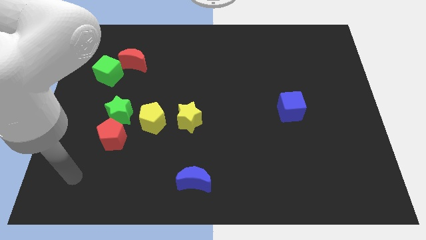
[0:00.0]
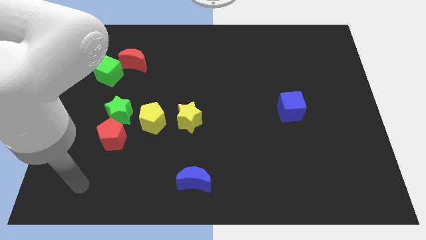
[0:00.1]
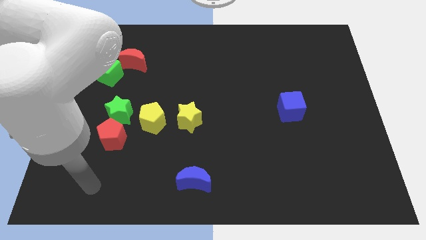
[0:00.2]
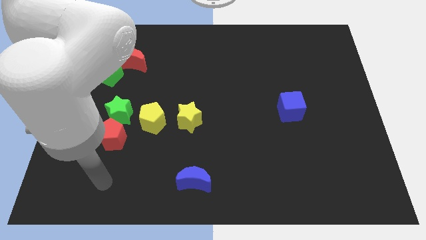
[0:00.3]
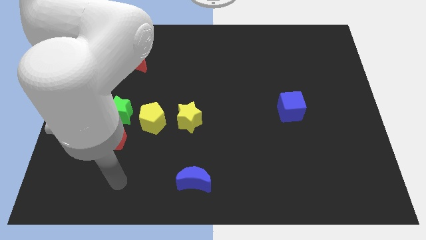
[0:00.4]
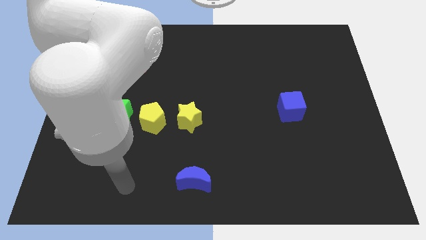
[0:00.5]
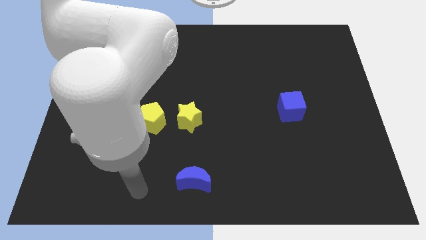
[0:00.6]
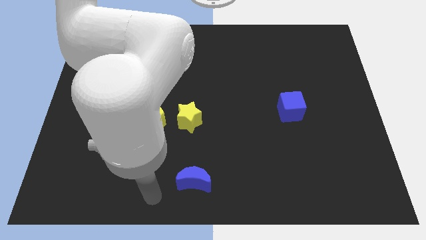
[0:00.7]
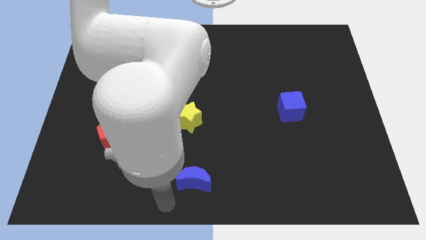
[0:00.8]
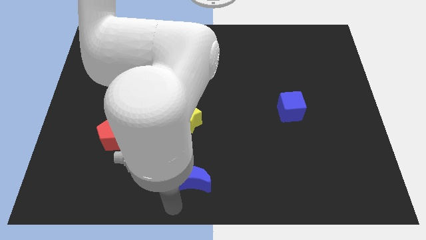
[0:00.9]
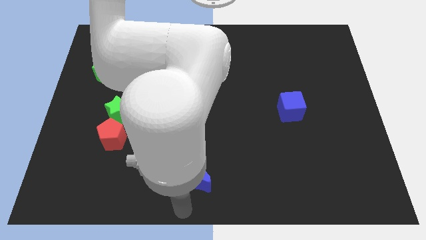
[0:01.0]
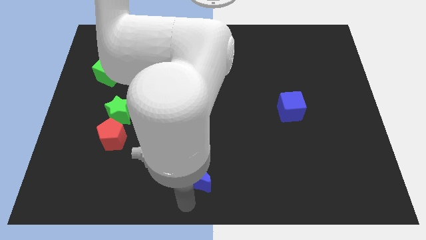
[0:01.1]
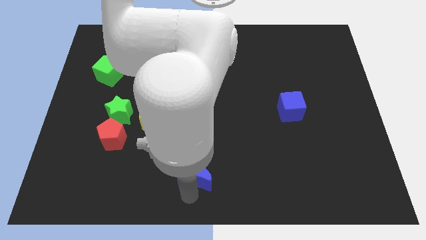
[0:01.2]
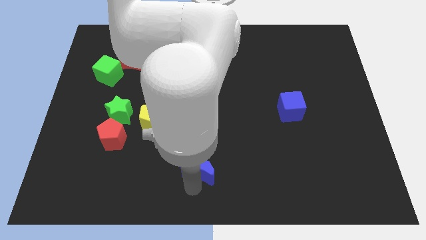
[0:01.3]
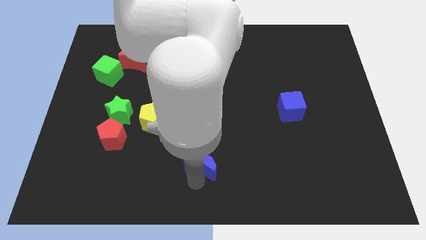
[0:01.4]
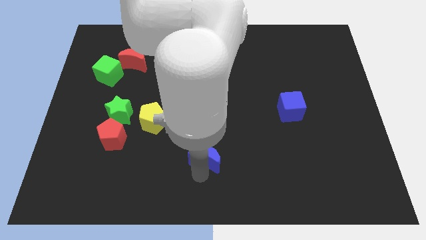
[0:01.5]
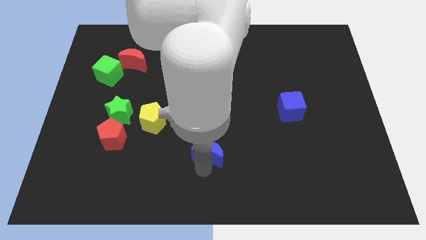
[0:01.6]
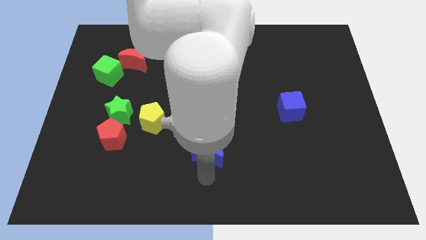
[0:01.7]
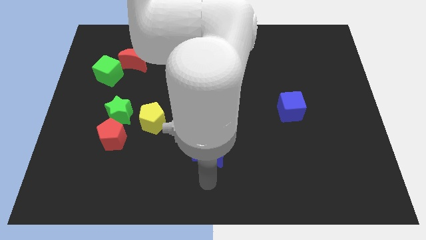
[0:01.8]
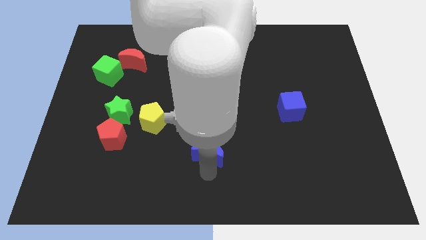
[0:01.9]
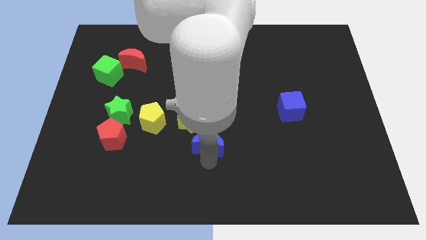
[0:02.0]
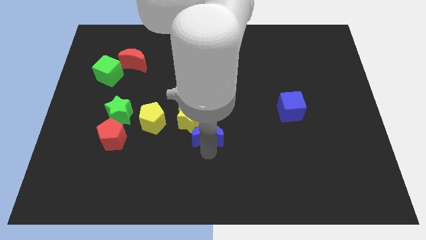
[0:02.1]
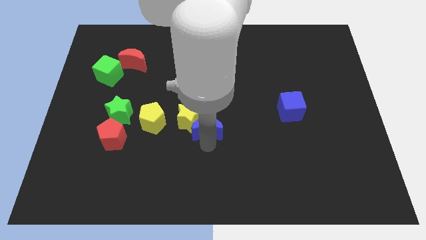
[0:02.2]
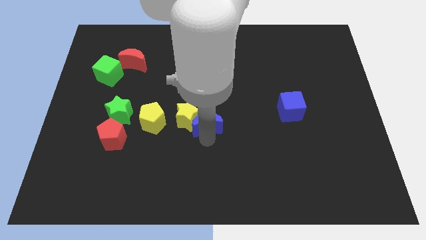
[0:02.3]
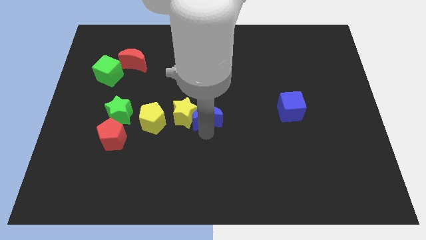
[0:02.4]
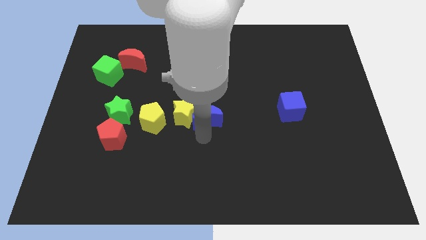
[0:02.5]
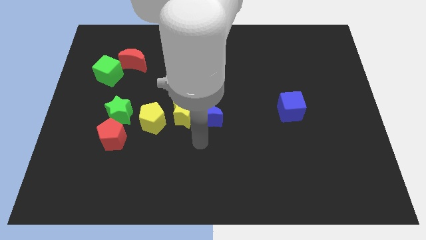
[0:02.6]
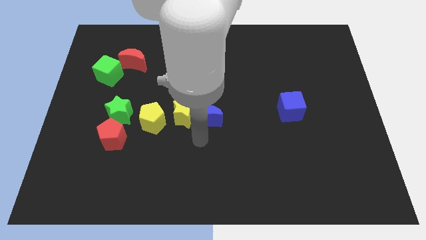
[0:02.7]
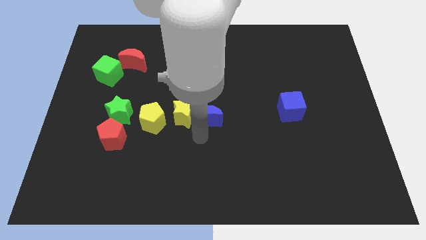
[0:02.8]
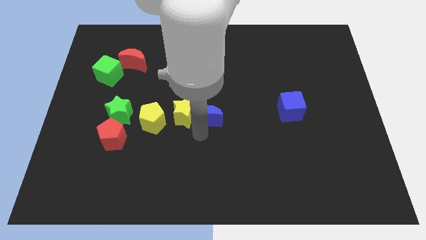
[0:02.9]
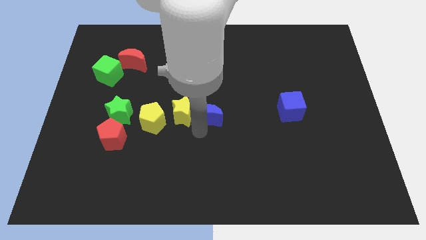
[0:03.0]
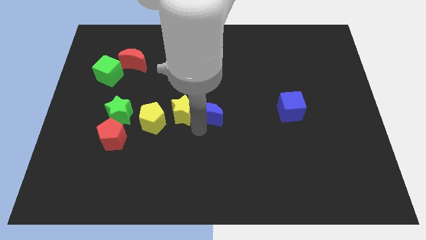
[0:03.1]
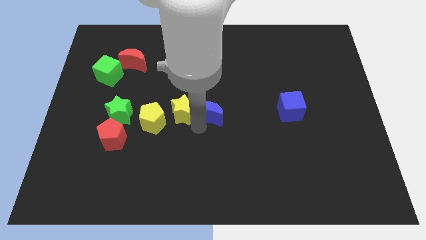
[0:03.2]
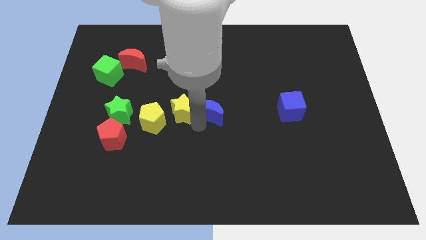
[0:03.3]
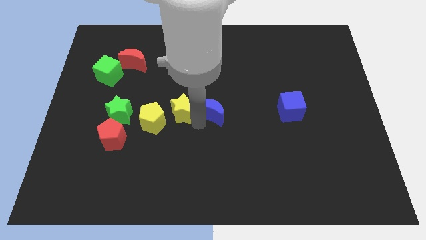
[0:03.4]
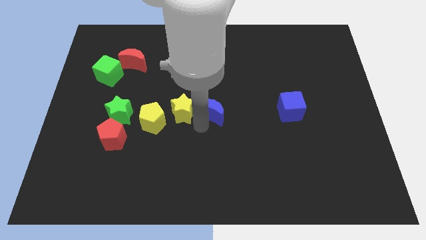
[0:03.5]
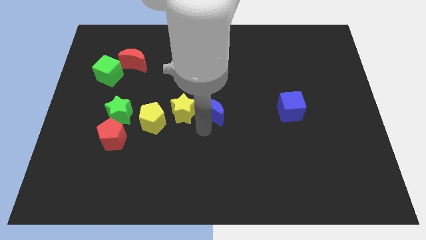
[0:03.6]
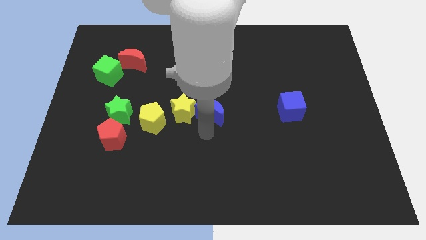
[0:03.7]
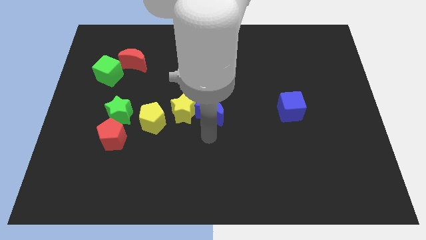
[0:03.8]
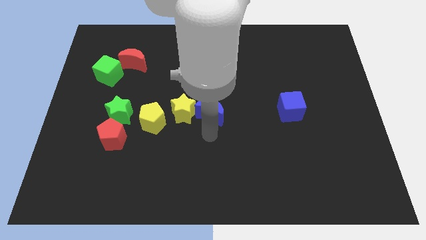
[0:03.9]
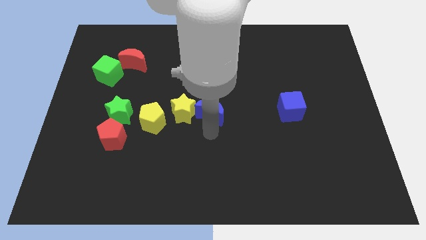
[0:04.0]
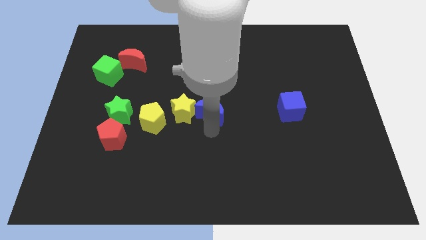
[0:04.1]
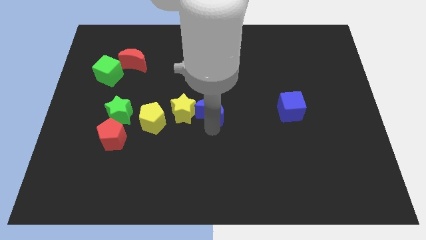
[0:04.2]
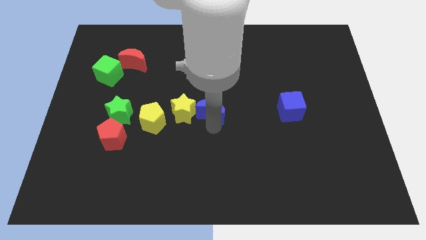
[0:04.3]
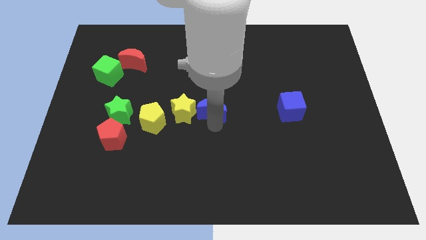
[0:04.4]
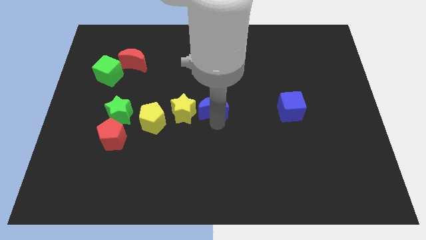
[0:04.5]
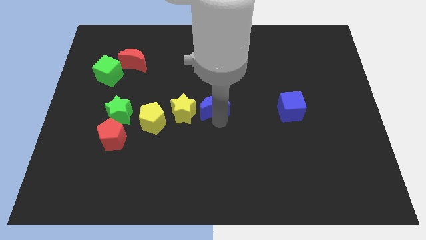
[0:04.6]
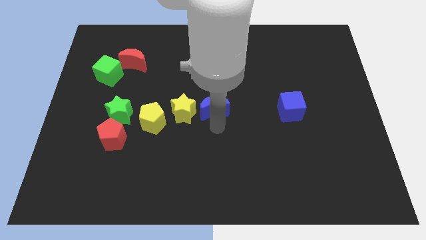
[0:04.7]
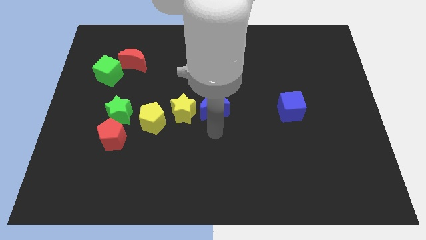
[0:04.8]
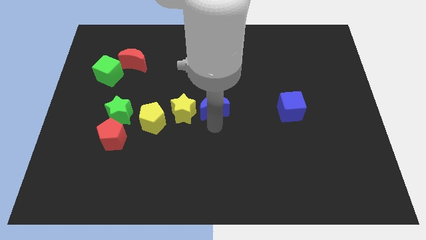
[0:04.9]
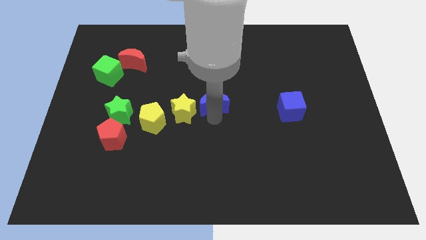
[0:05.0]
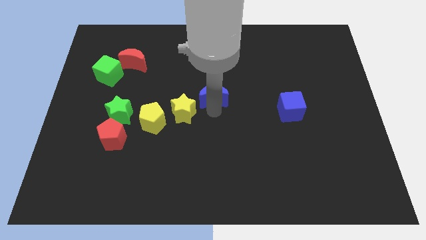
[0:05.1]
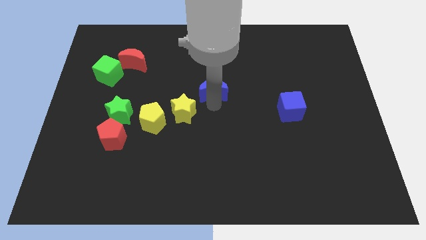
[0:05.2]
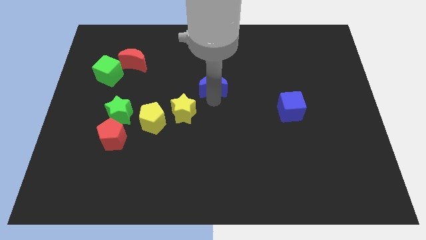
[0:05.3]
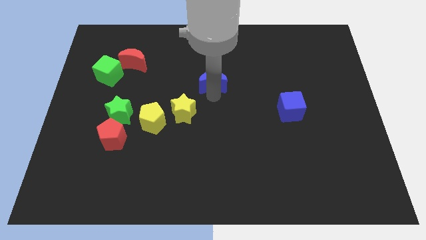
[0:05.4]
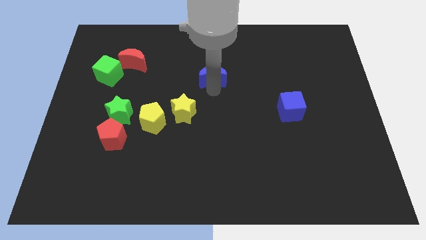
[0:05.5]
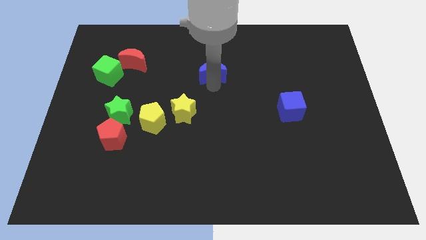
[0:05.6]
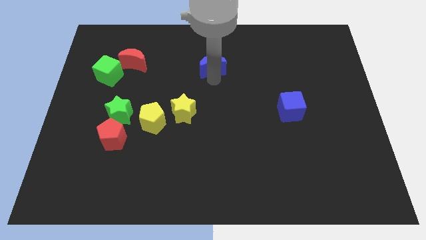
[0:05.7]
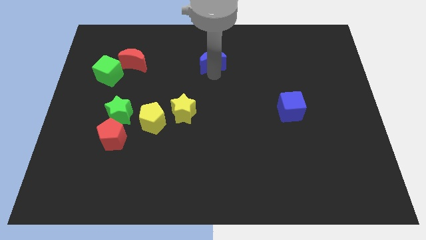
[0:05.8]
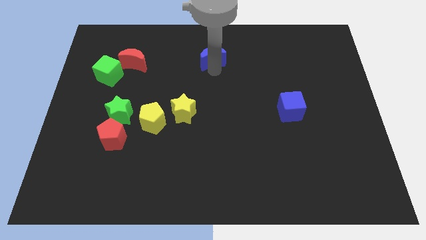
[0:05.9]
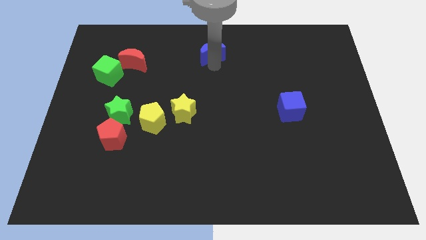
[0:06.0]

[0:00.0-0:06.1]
push the blue moon to the top
